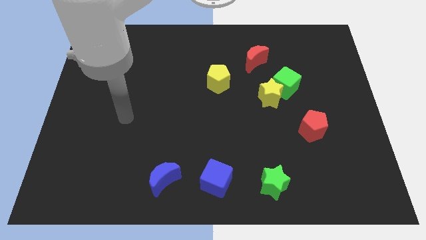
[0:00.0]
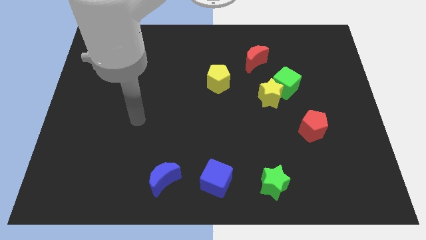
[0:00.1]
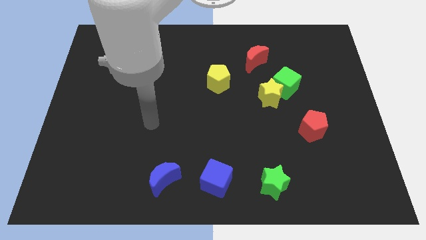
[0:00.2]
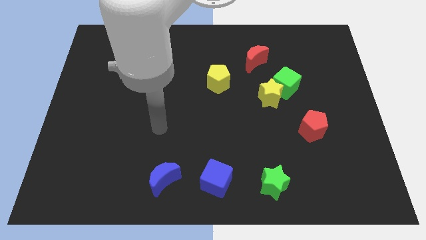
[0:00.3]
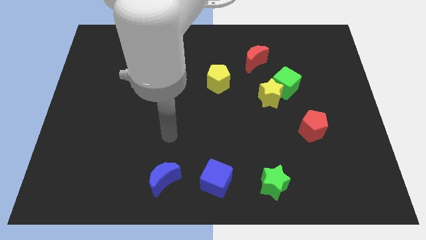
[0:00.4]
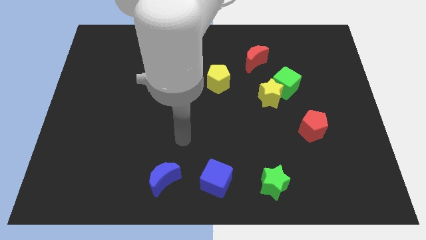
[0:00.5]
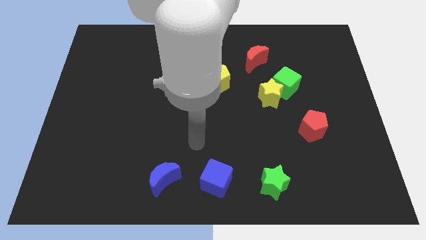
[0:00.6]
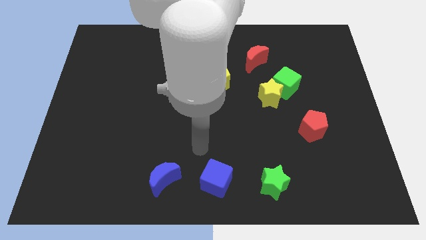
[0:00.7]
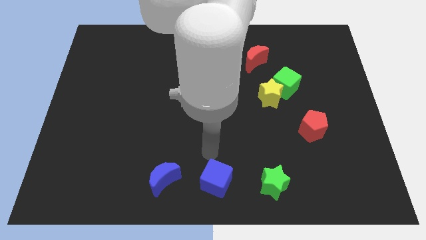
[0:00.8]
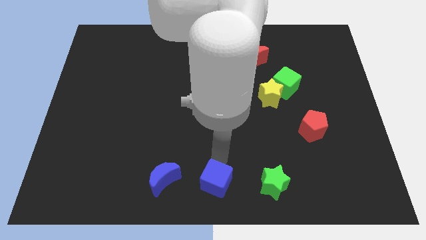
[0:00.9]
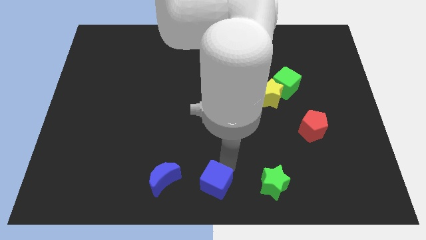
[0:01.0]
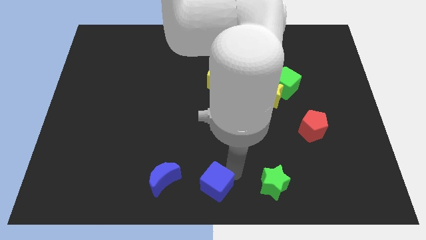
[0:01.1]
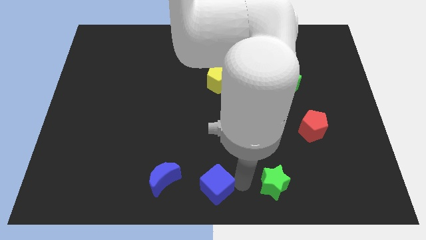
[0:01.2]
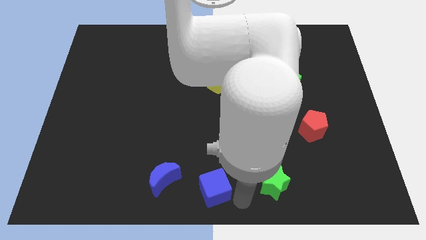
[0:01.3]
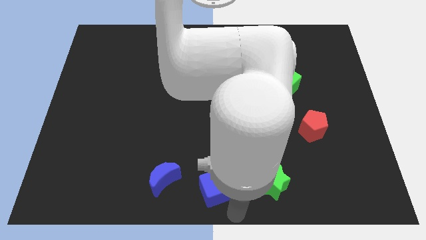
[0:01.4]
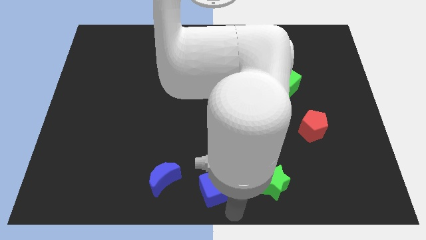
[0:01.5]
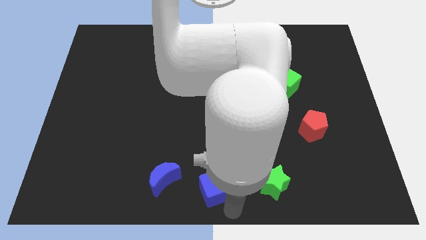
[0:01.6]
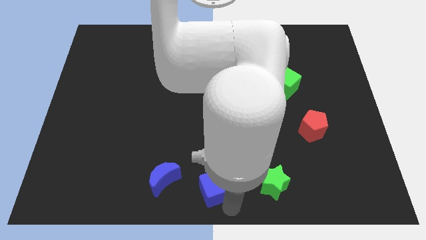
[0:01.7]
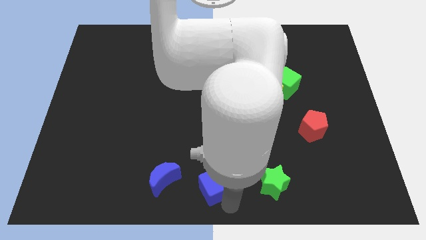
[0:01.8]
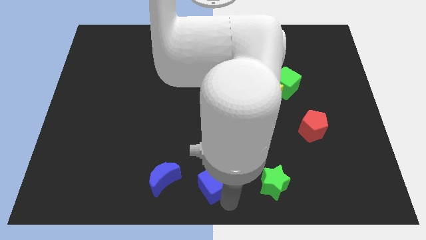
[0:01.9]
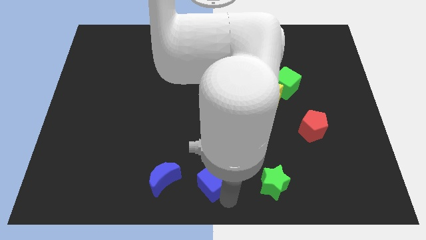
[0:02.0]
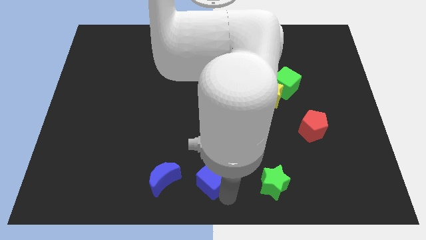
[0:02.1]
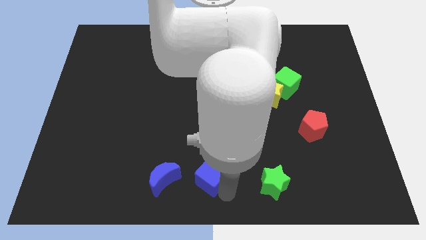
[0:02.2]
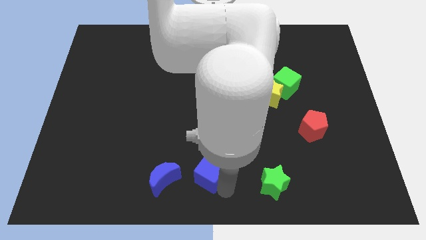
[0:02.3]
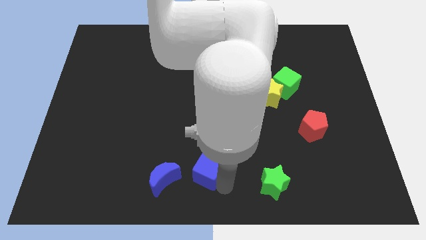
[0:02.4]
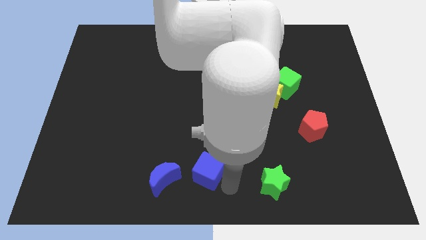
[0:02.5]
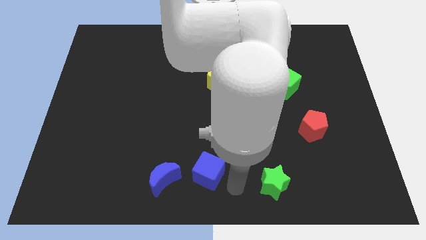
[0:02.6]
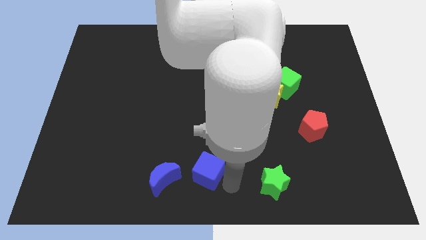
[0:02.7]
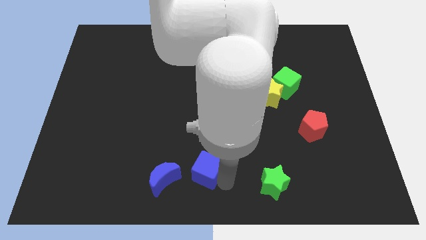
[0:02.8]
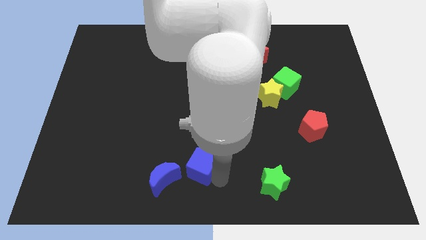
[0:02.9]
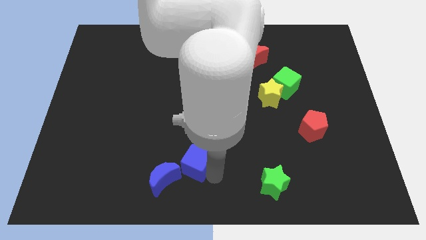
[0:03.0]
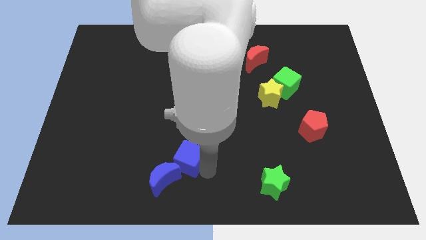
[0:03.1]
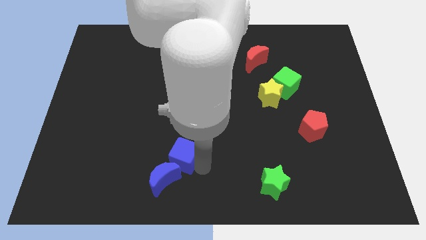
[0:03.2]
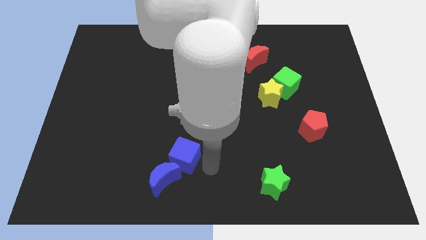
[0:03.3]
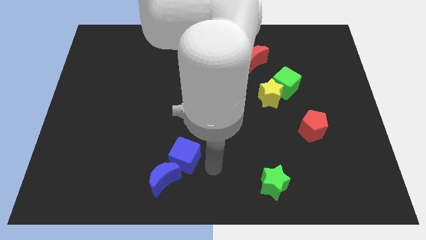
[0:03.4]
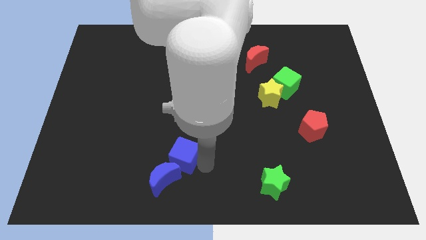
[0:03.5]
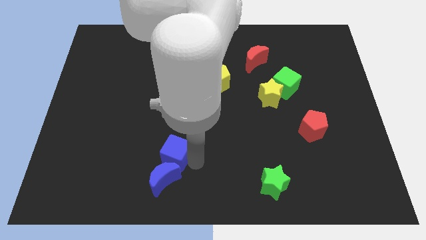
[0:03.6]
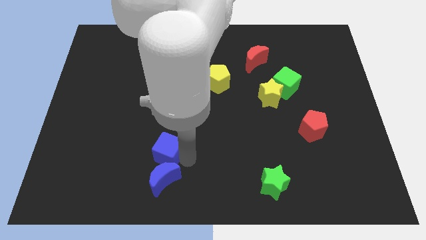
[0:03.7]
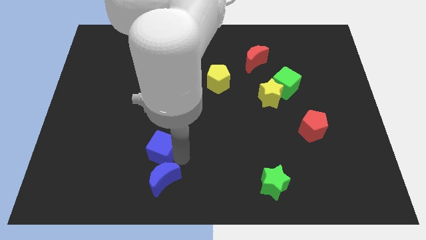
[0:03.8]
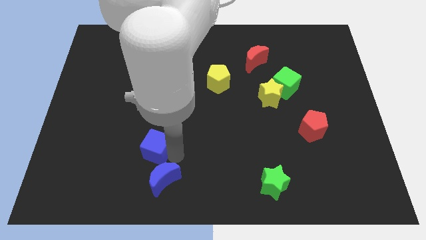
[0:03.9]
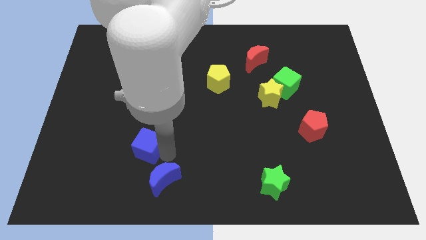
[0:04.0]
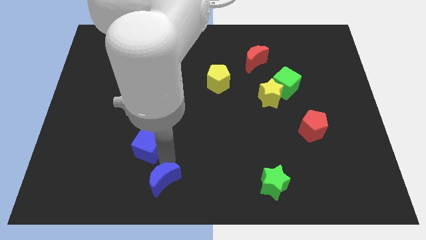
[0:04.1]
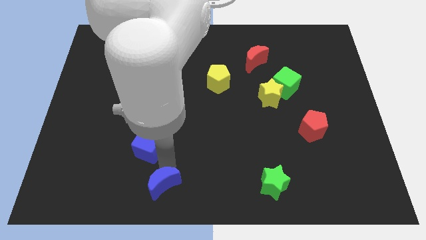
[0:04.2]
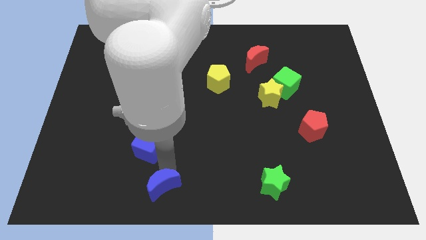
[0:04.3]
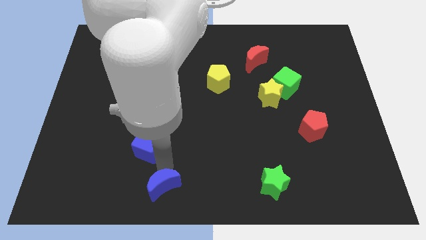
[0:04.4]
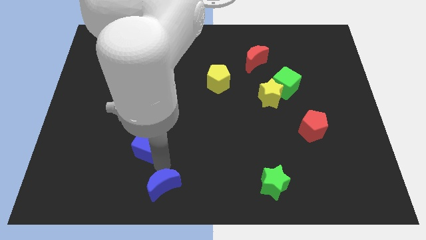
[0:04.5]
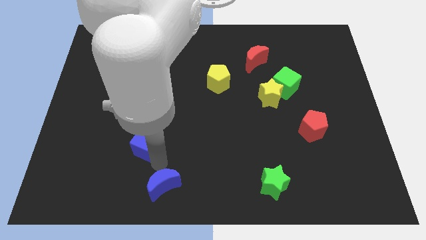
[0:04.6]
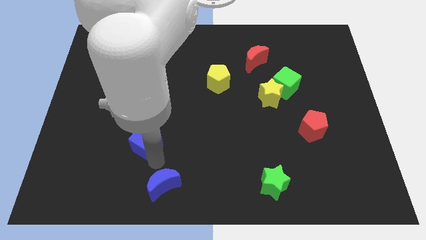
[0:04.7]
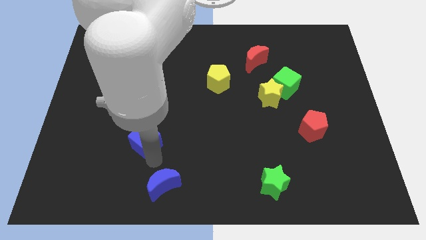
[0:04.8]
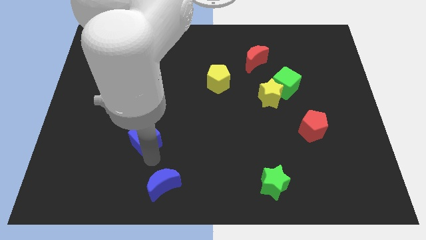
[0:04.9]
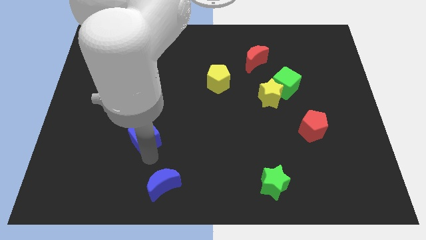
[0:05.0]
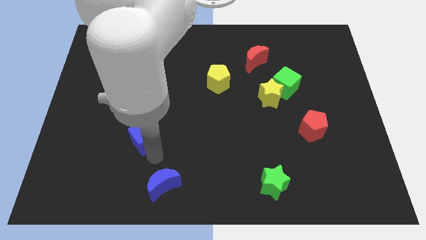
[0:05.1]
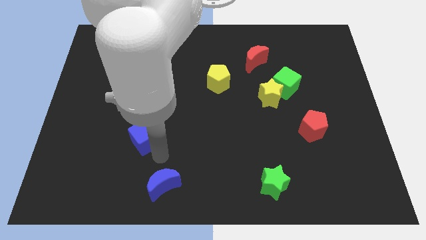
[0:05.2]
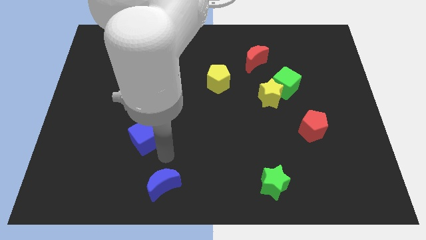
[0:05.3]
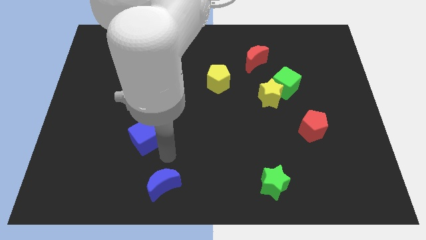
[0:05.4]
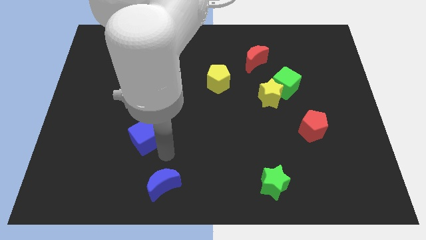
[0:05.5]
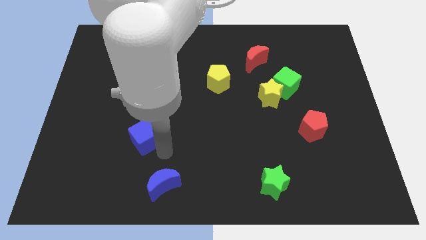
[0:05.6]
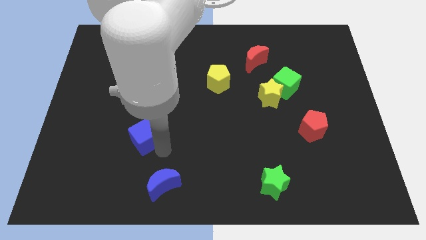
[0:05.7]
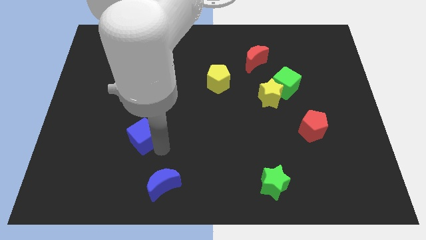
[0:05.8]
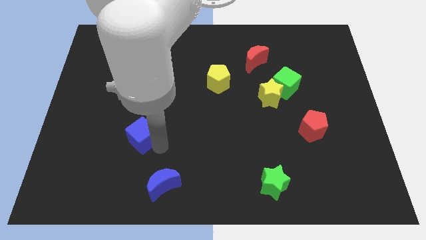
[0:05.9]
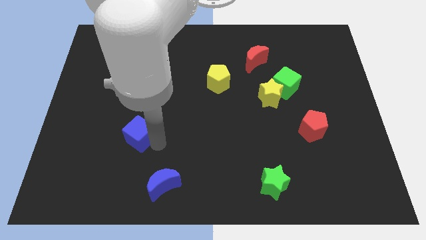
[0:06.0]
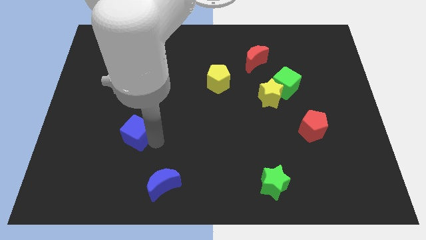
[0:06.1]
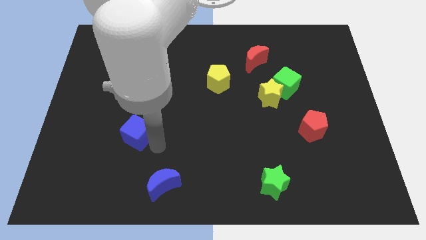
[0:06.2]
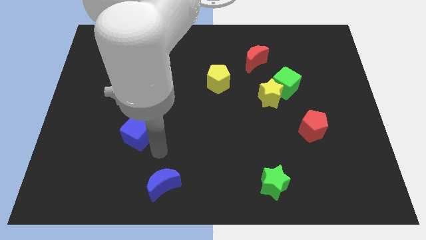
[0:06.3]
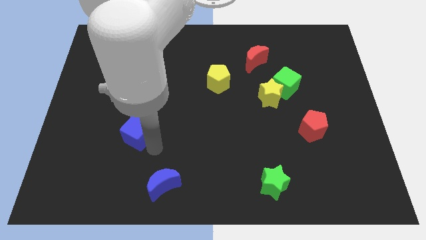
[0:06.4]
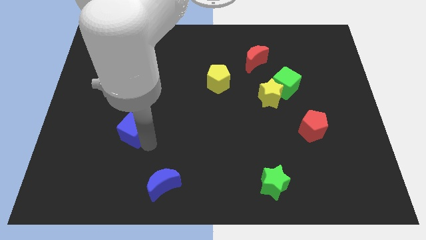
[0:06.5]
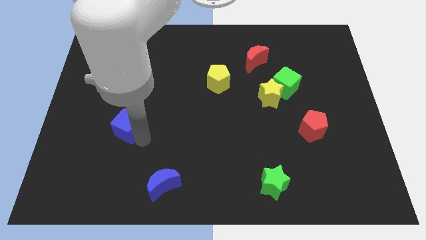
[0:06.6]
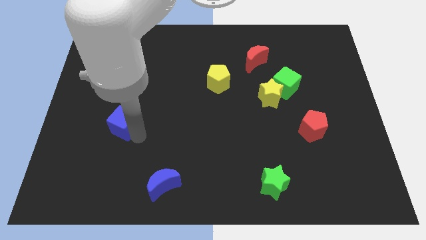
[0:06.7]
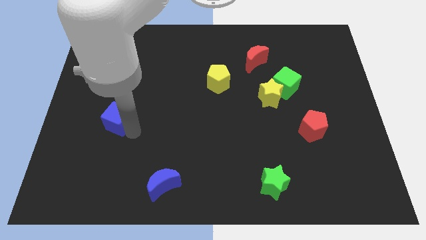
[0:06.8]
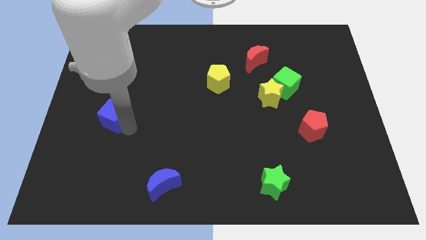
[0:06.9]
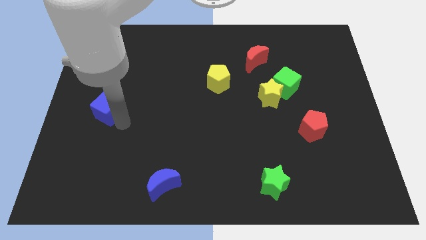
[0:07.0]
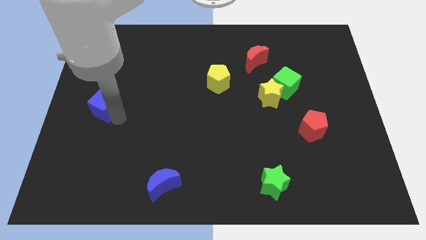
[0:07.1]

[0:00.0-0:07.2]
move the blue cube to the left side
